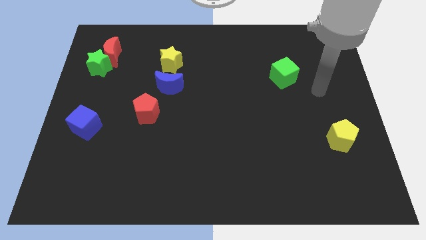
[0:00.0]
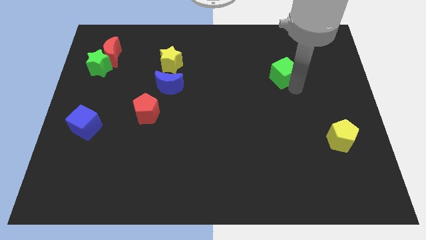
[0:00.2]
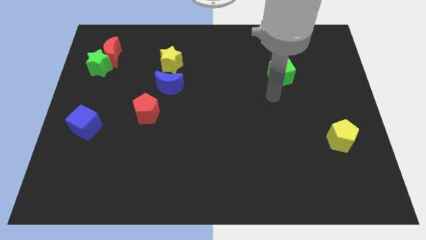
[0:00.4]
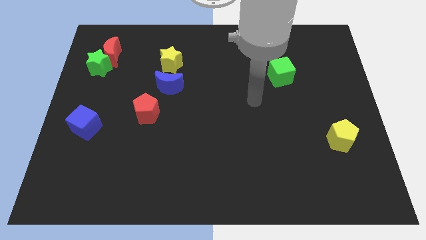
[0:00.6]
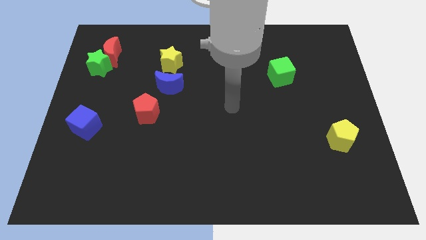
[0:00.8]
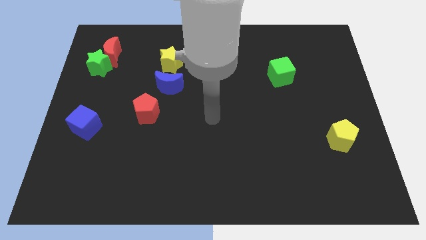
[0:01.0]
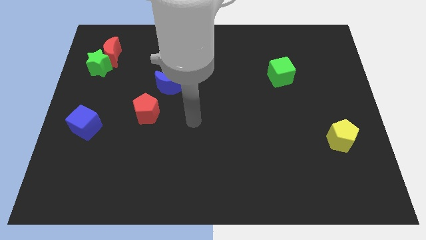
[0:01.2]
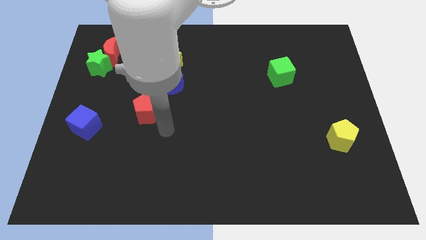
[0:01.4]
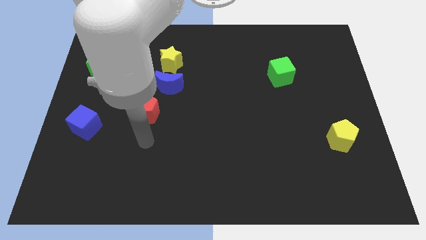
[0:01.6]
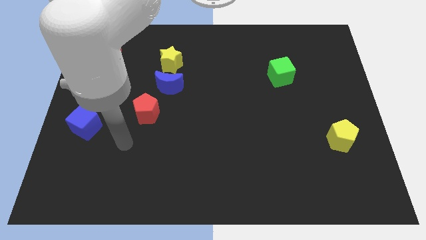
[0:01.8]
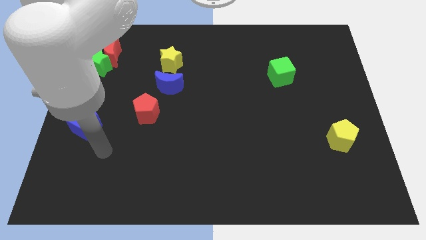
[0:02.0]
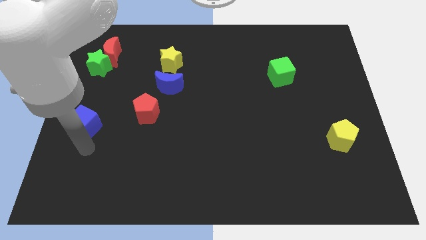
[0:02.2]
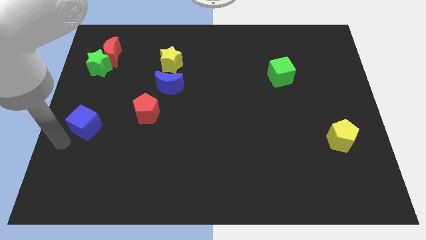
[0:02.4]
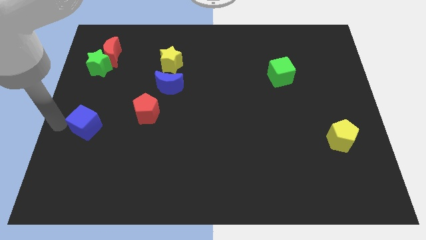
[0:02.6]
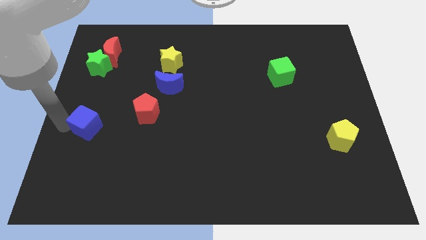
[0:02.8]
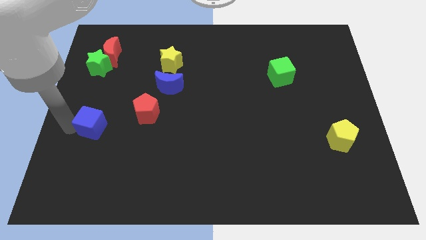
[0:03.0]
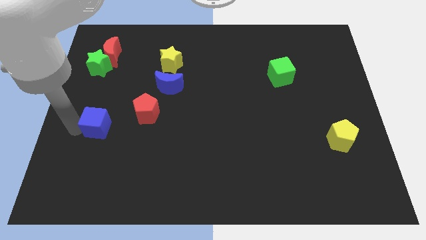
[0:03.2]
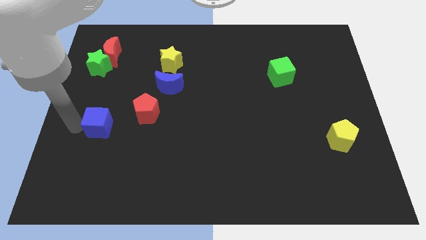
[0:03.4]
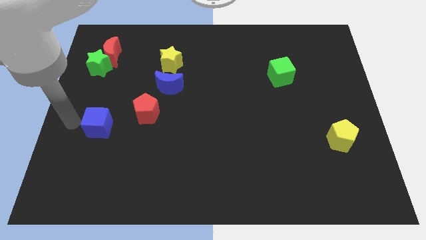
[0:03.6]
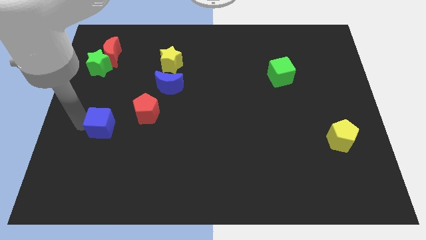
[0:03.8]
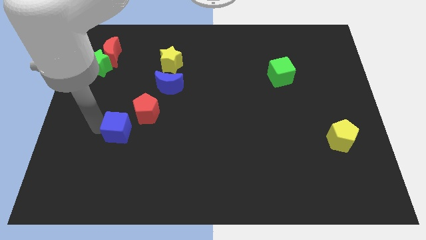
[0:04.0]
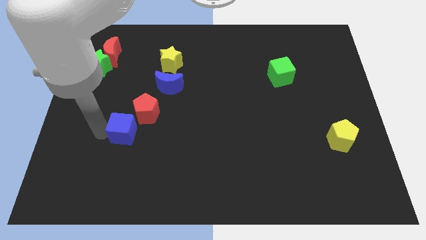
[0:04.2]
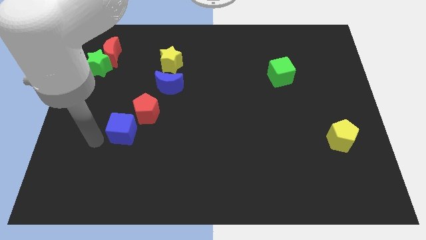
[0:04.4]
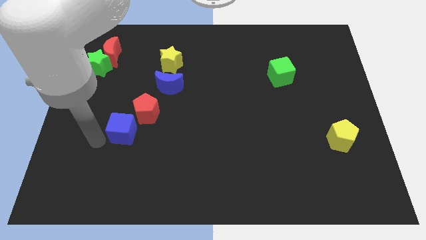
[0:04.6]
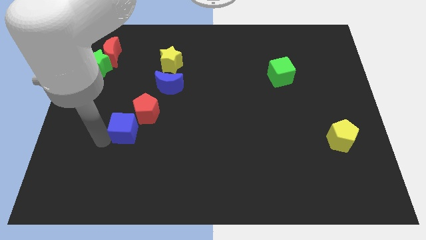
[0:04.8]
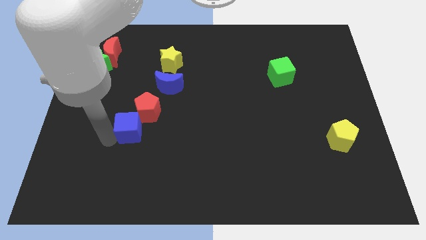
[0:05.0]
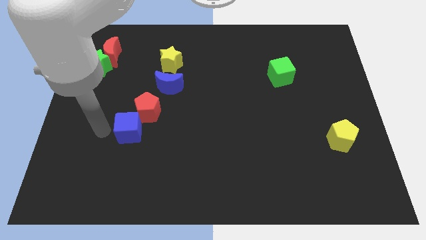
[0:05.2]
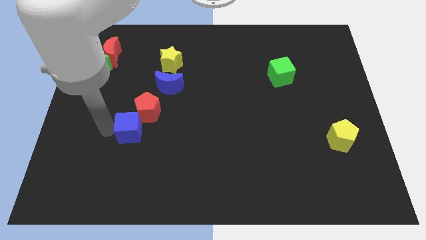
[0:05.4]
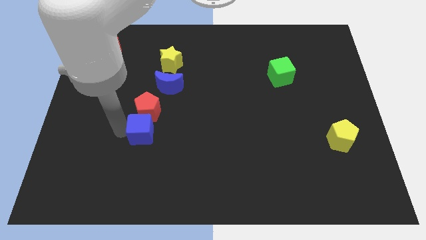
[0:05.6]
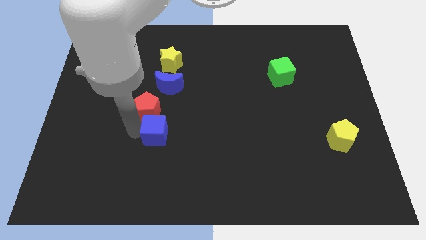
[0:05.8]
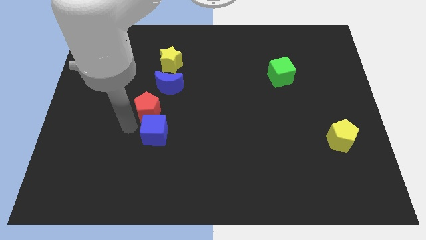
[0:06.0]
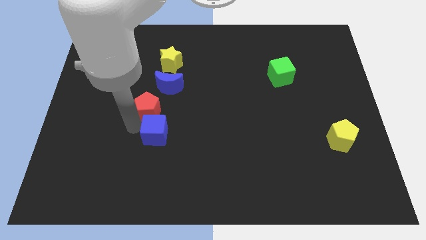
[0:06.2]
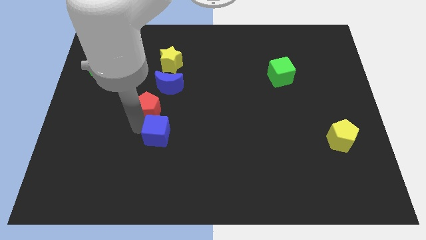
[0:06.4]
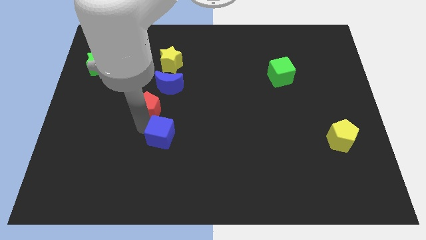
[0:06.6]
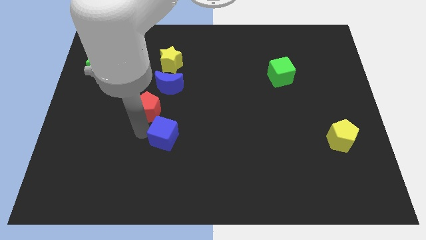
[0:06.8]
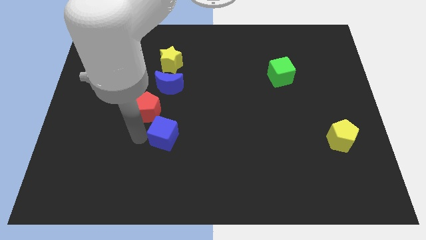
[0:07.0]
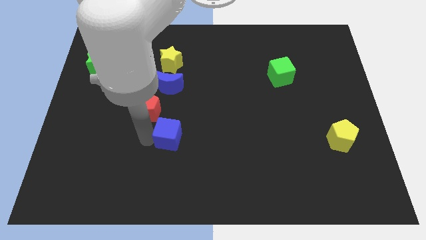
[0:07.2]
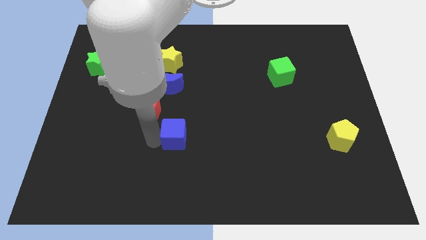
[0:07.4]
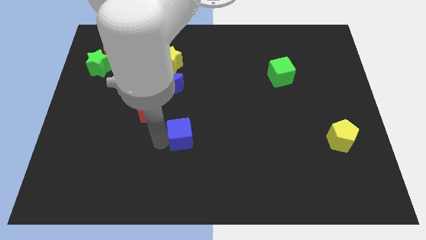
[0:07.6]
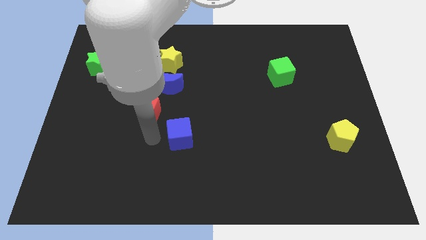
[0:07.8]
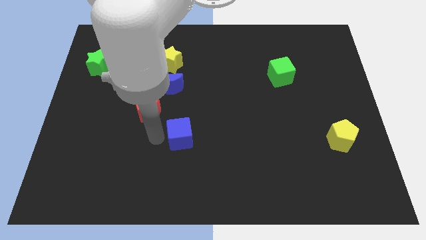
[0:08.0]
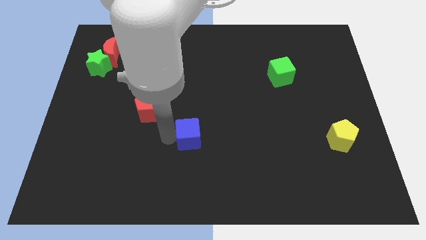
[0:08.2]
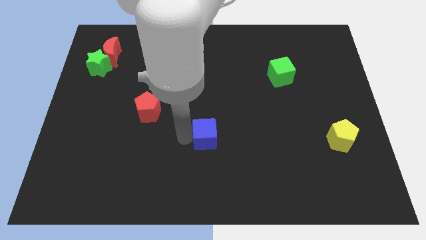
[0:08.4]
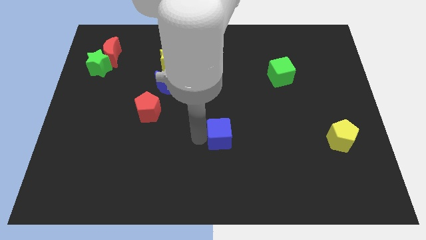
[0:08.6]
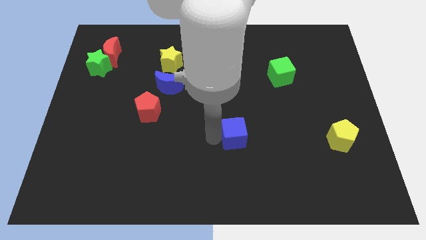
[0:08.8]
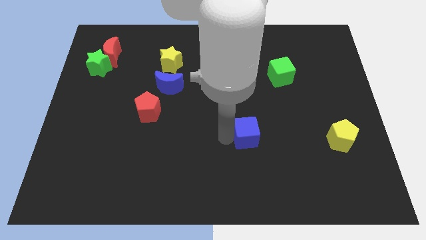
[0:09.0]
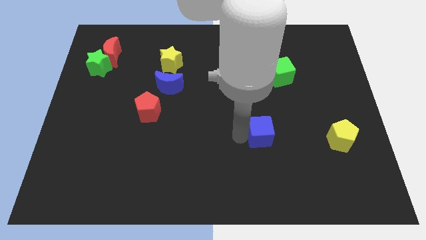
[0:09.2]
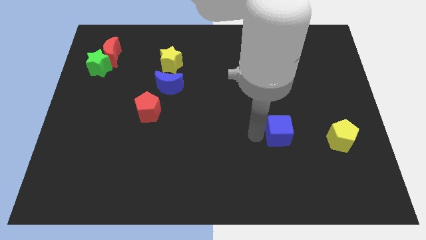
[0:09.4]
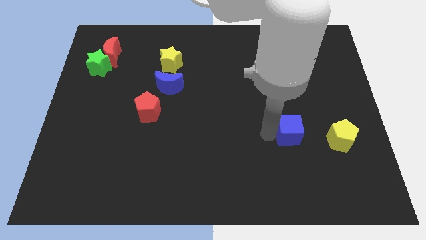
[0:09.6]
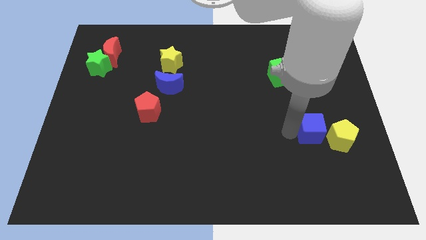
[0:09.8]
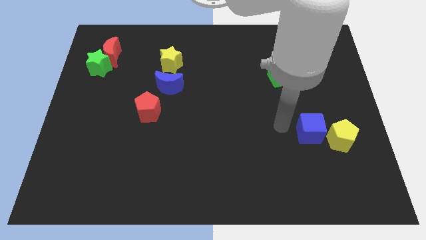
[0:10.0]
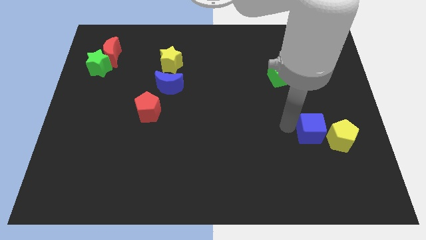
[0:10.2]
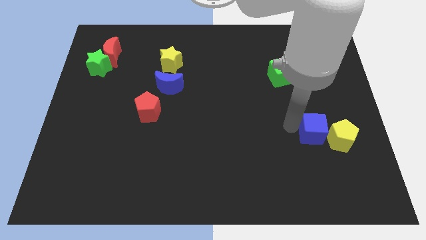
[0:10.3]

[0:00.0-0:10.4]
push the blue cube to the yellow pentagon

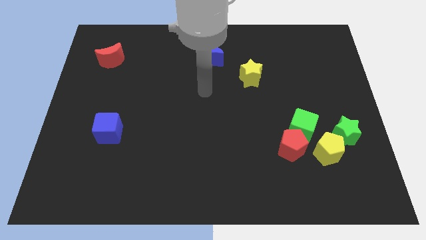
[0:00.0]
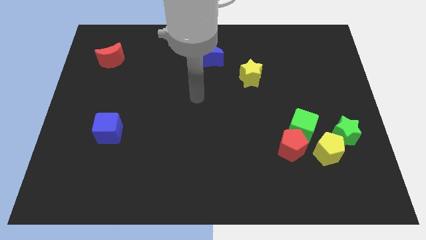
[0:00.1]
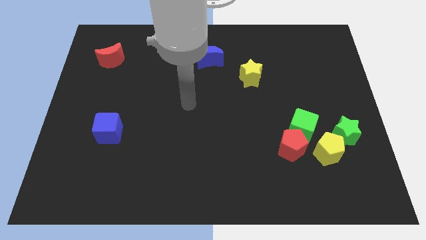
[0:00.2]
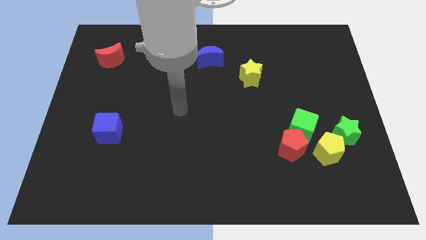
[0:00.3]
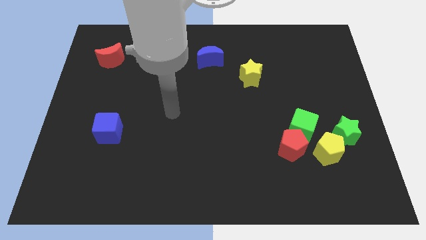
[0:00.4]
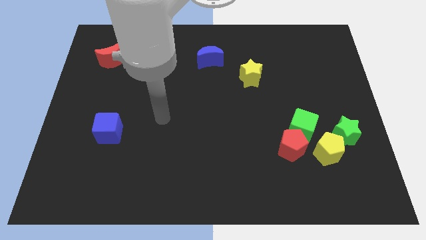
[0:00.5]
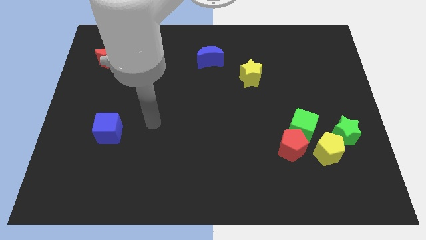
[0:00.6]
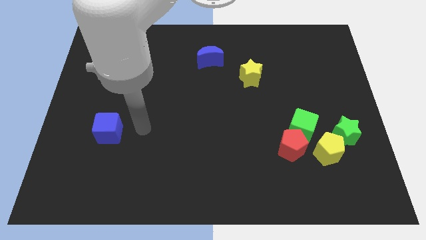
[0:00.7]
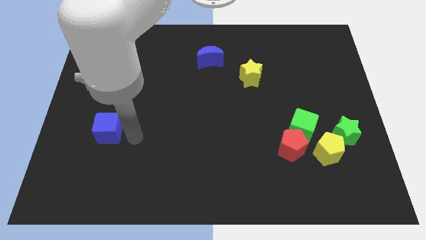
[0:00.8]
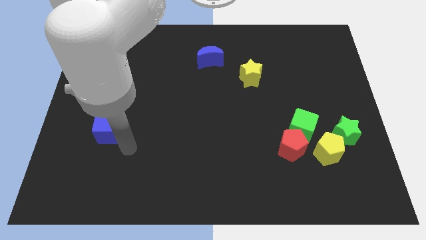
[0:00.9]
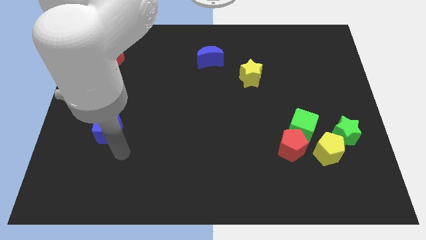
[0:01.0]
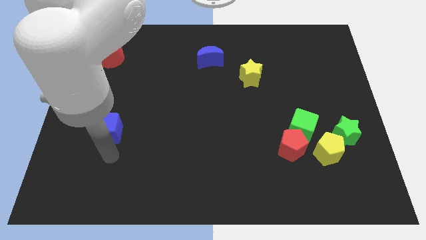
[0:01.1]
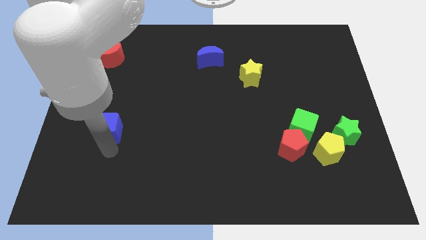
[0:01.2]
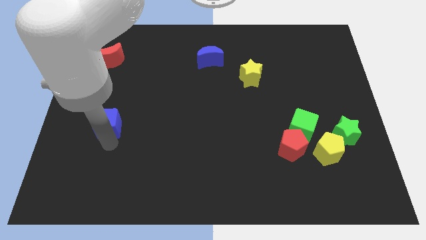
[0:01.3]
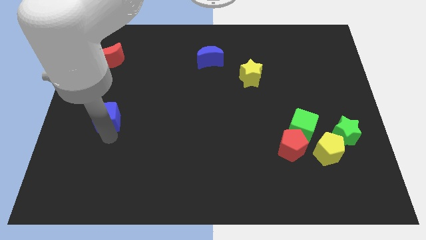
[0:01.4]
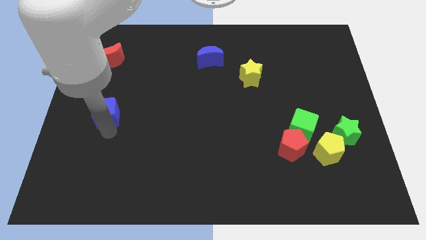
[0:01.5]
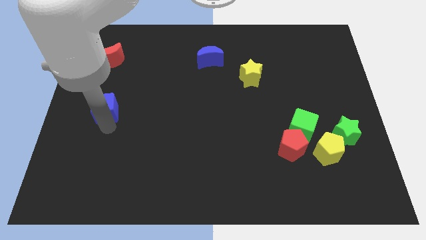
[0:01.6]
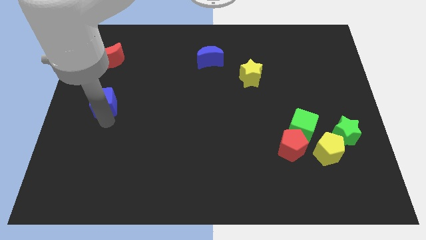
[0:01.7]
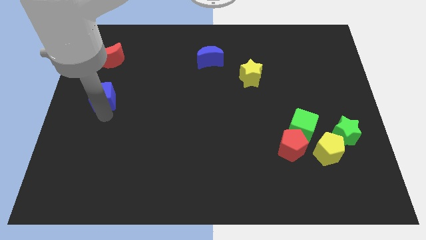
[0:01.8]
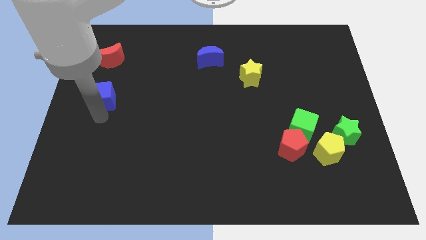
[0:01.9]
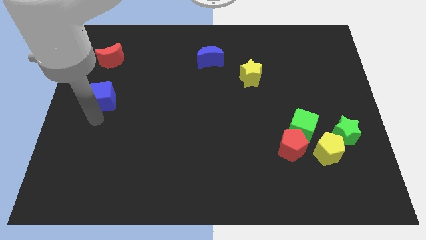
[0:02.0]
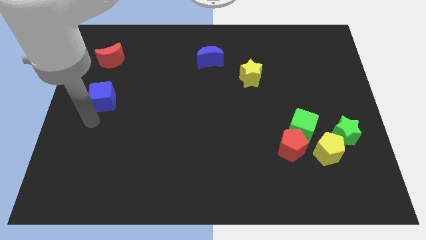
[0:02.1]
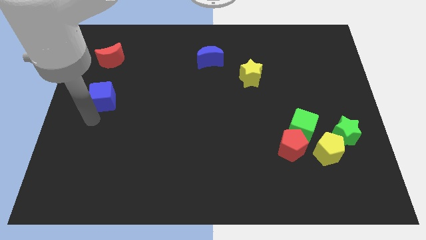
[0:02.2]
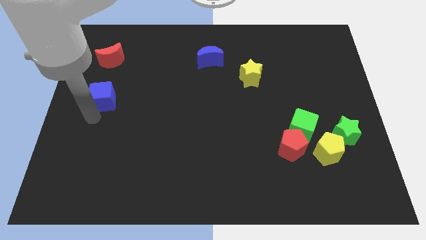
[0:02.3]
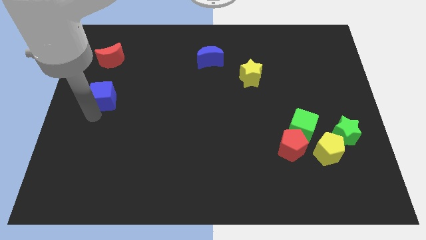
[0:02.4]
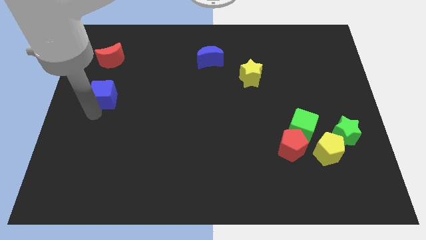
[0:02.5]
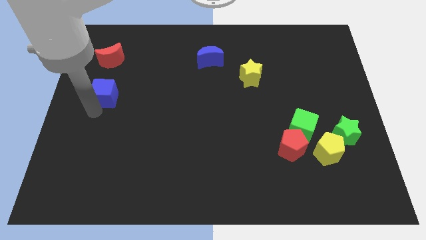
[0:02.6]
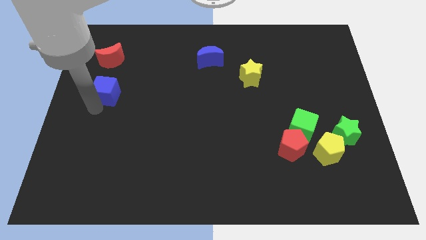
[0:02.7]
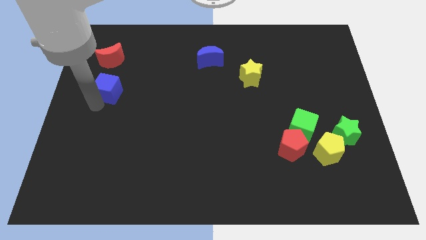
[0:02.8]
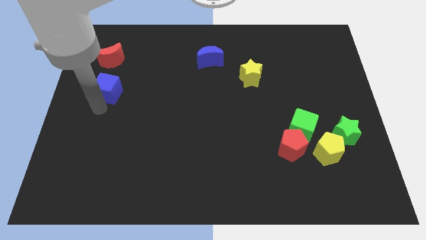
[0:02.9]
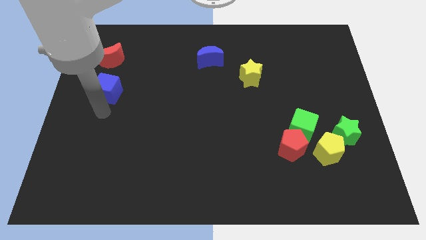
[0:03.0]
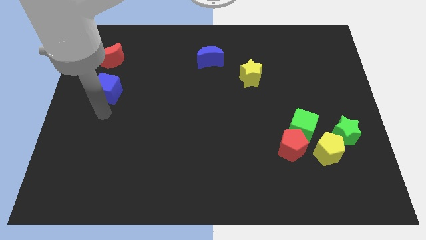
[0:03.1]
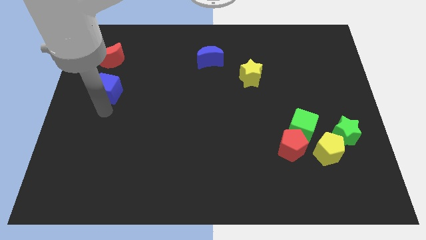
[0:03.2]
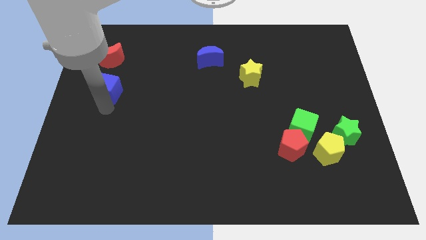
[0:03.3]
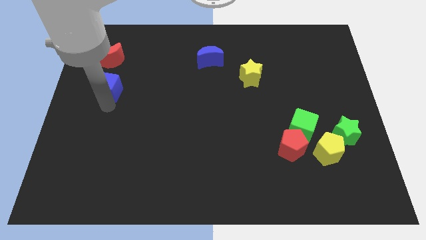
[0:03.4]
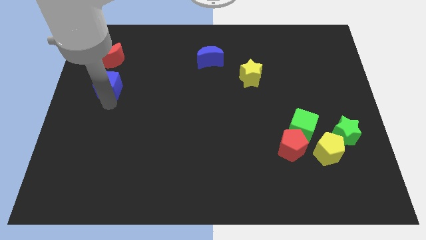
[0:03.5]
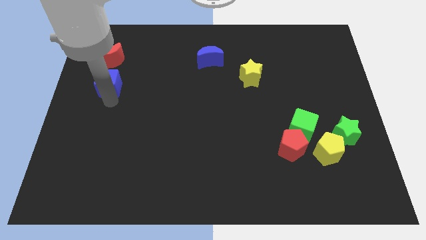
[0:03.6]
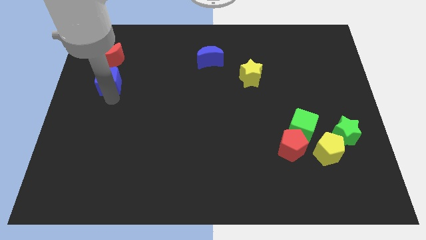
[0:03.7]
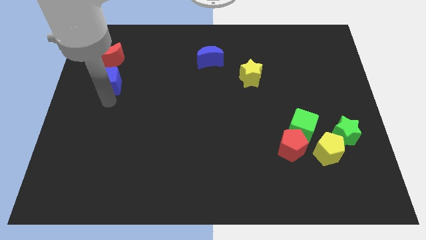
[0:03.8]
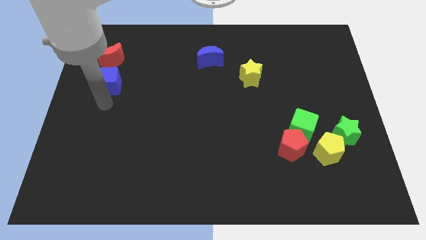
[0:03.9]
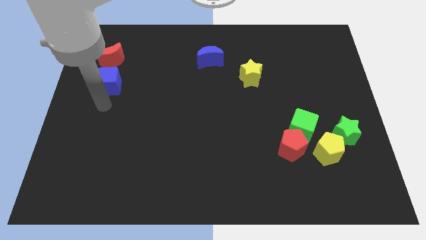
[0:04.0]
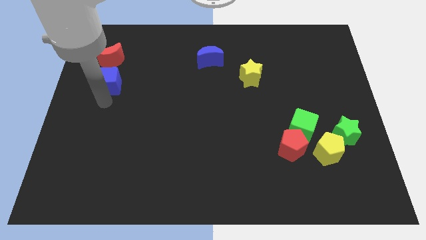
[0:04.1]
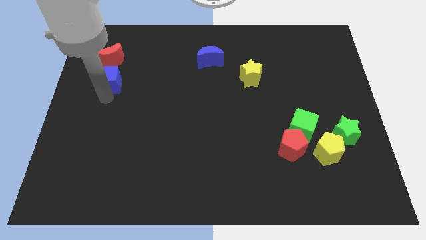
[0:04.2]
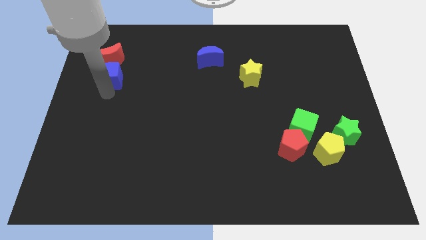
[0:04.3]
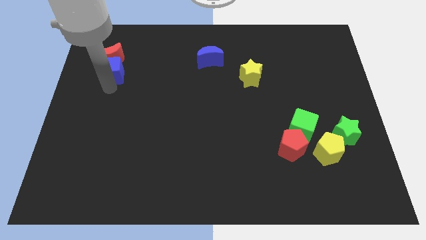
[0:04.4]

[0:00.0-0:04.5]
push the blue cube next to the red moon
